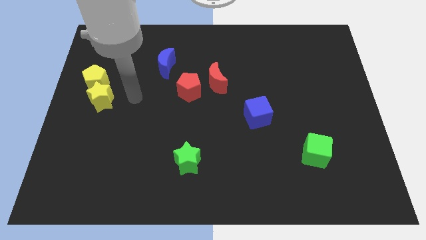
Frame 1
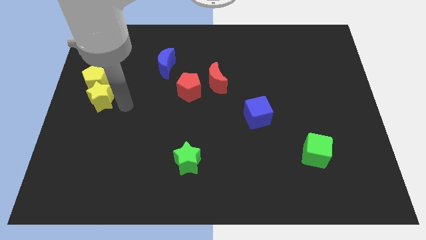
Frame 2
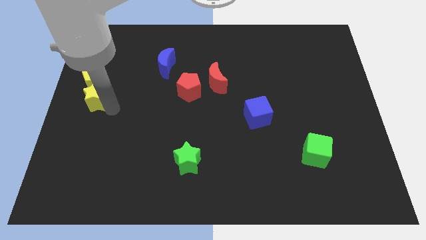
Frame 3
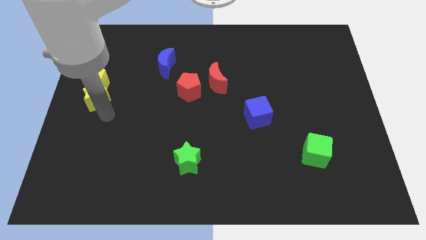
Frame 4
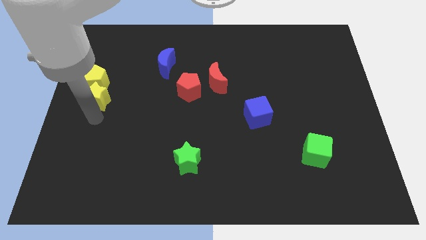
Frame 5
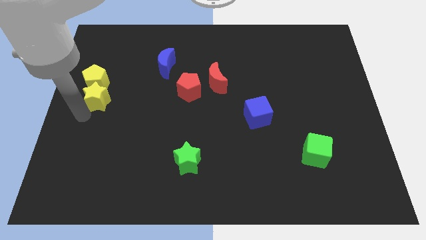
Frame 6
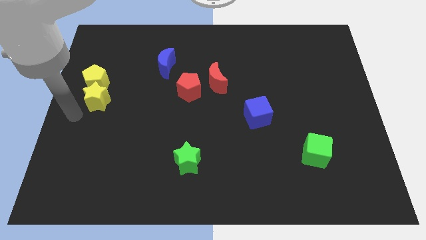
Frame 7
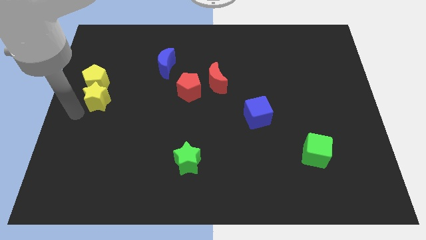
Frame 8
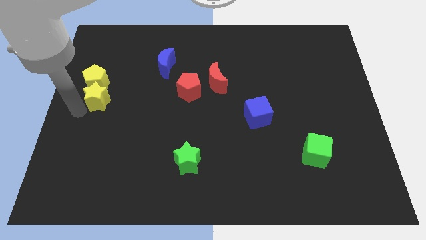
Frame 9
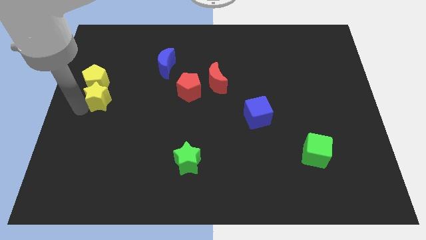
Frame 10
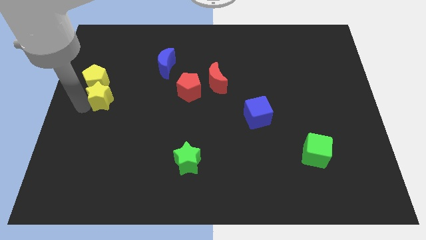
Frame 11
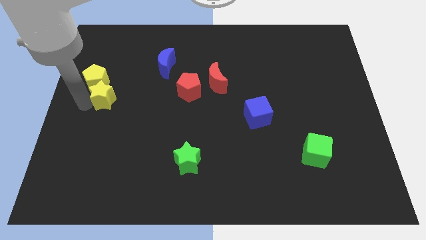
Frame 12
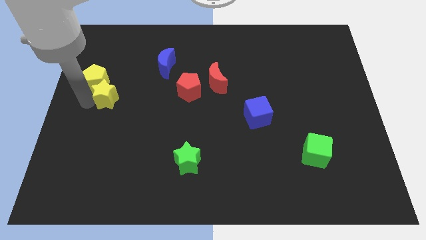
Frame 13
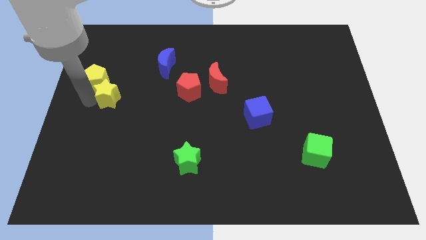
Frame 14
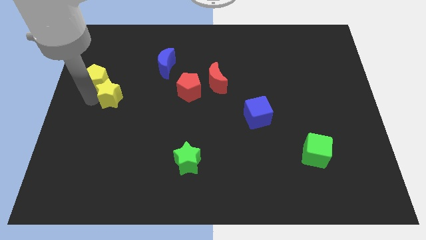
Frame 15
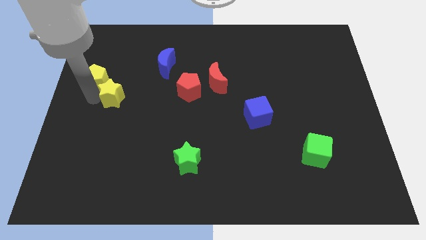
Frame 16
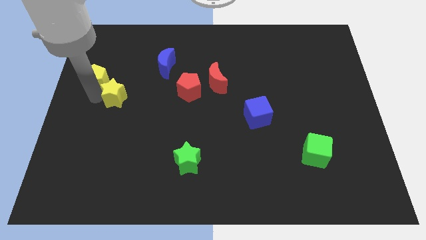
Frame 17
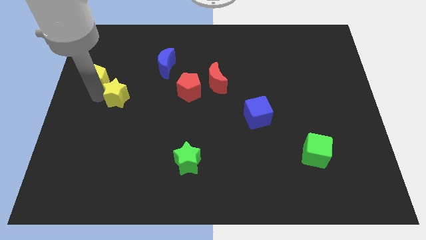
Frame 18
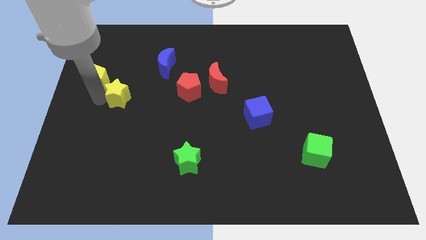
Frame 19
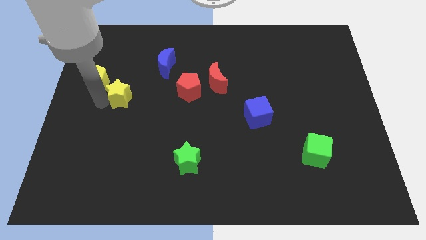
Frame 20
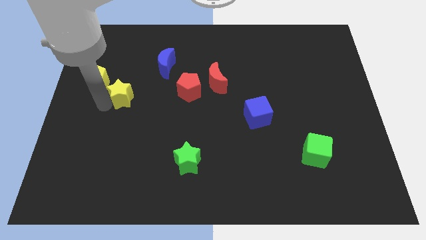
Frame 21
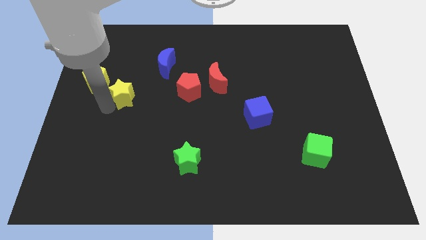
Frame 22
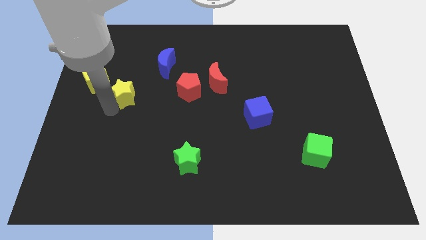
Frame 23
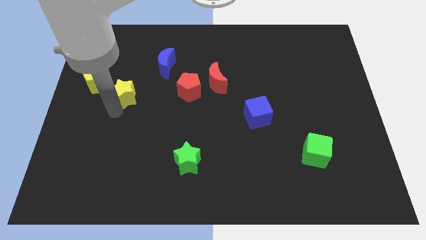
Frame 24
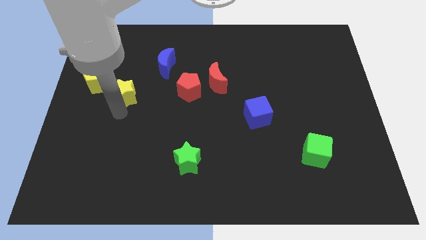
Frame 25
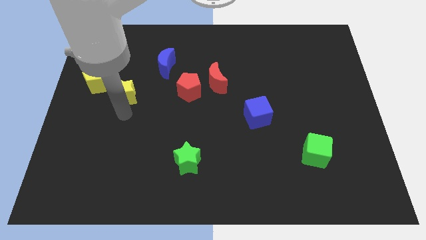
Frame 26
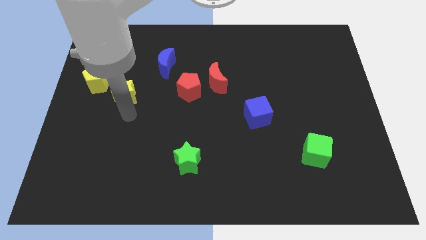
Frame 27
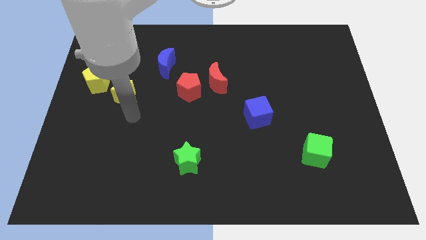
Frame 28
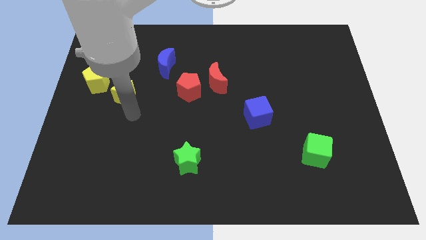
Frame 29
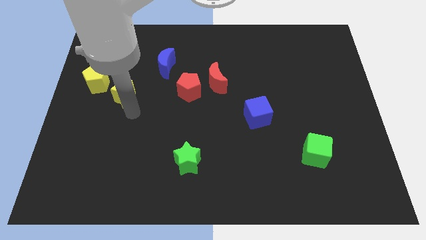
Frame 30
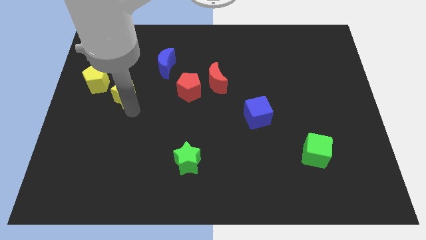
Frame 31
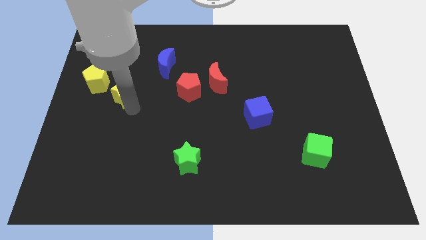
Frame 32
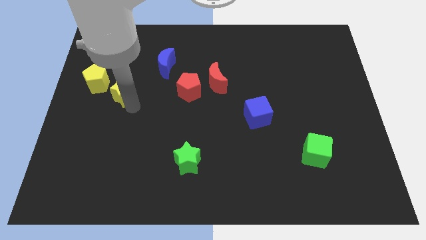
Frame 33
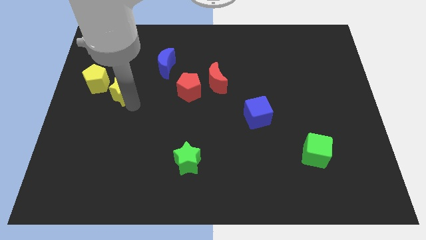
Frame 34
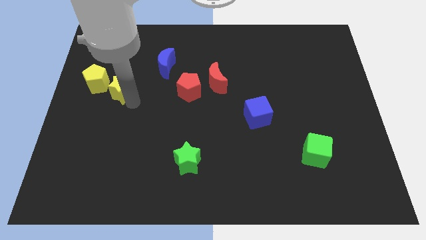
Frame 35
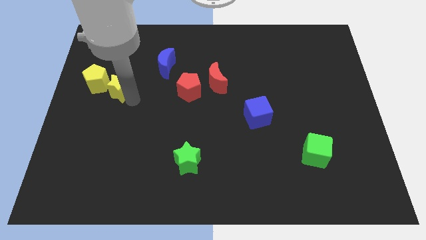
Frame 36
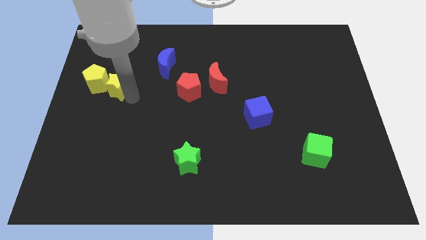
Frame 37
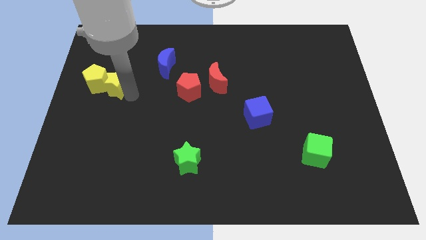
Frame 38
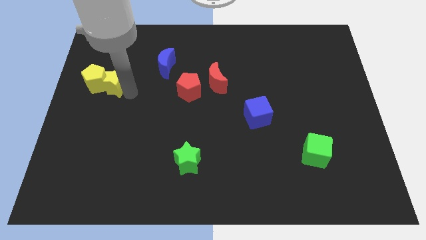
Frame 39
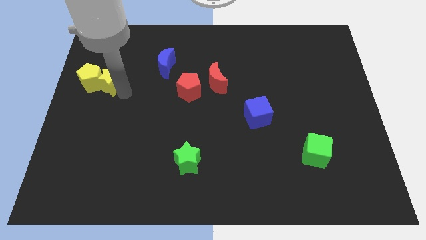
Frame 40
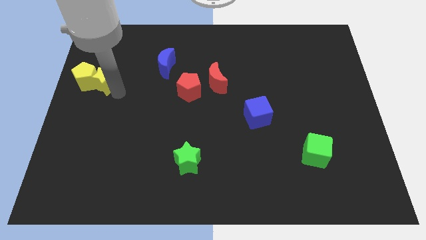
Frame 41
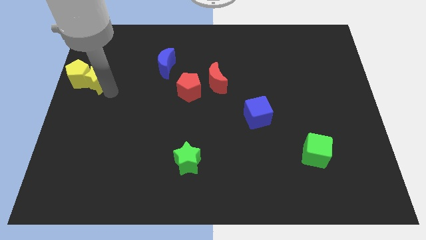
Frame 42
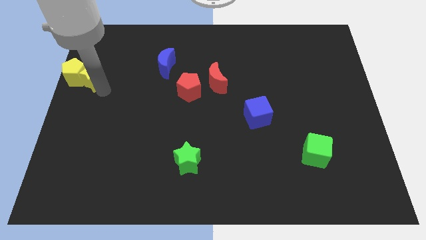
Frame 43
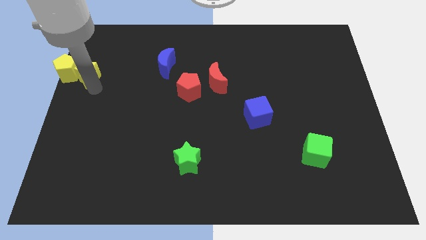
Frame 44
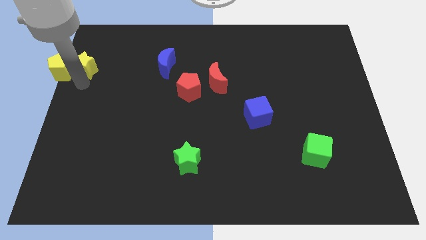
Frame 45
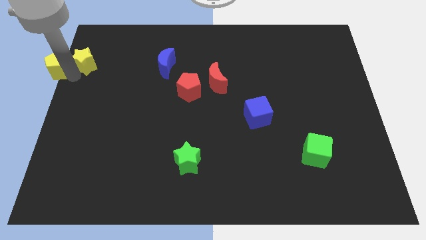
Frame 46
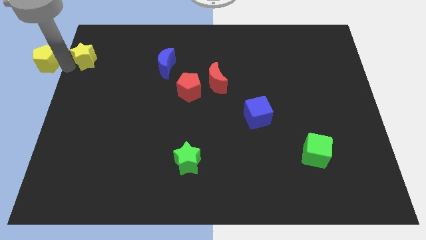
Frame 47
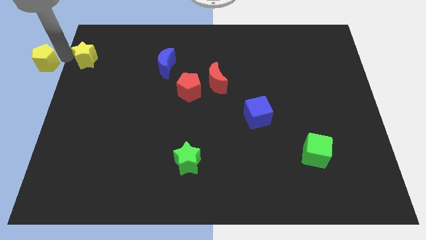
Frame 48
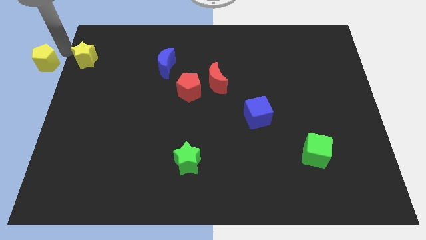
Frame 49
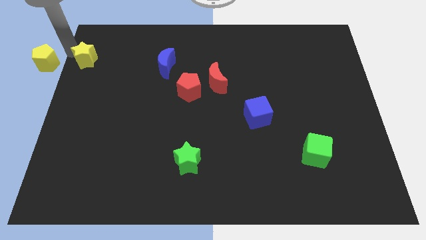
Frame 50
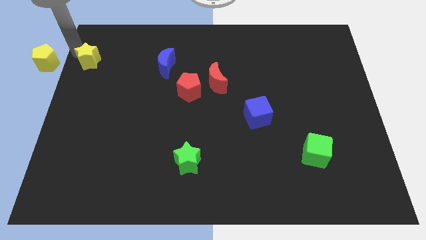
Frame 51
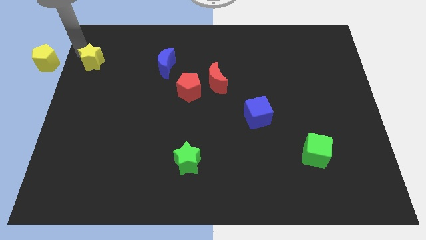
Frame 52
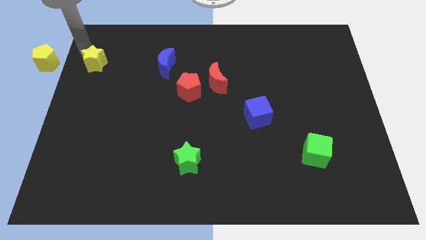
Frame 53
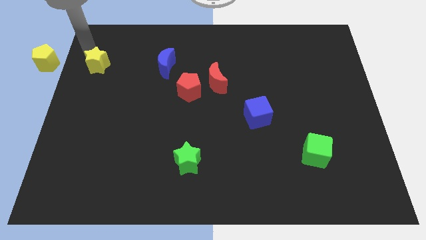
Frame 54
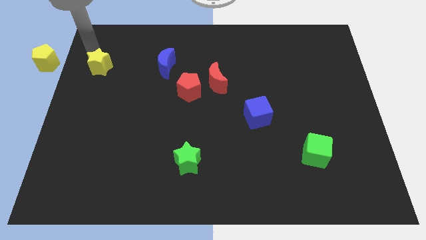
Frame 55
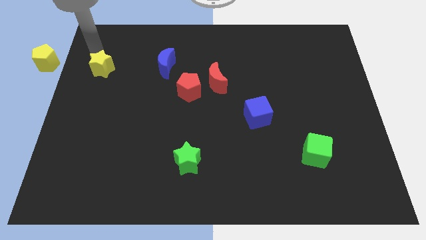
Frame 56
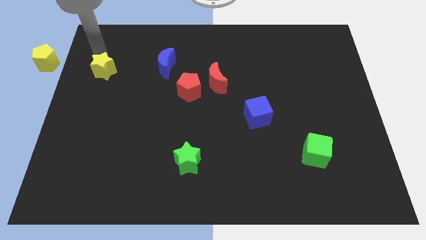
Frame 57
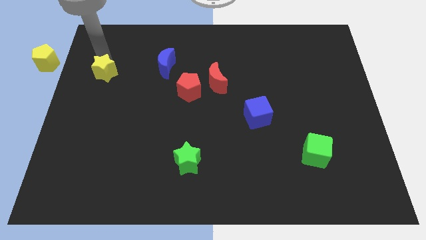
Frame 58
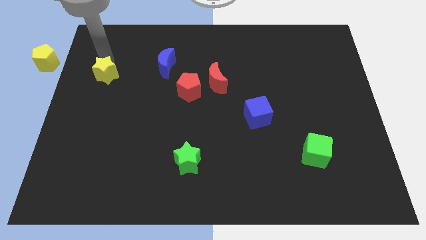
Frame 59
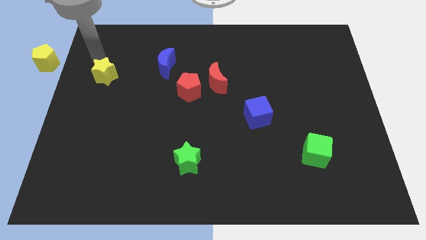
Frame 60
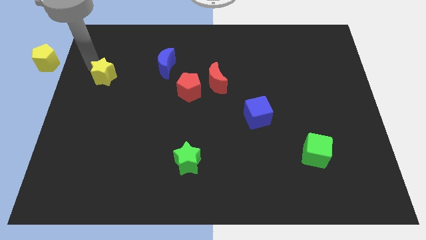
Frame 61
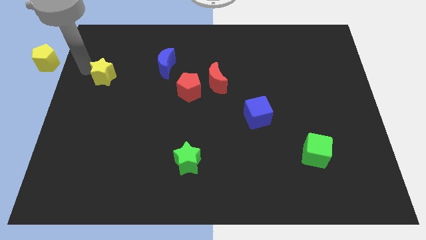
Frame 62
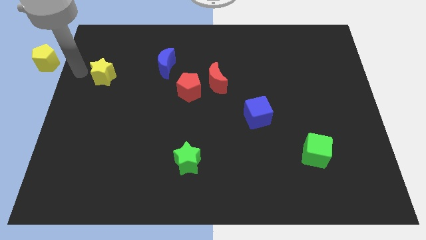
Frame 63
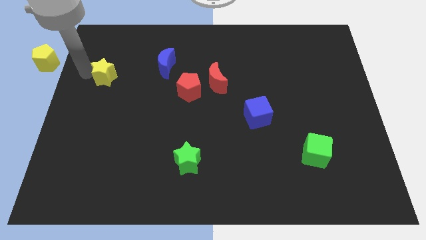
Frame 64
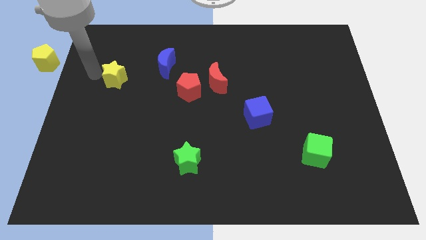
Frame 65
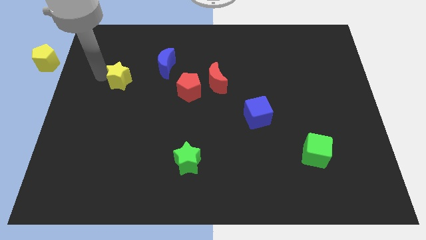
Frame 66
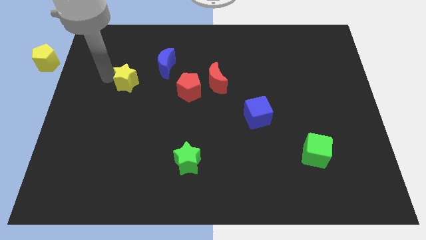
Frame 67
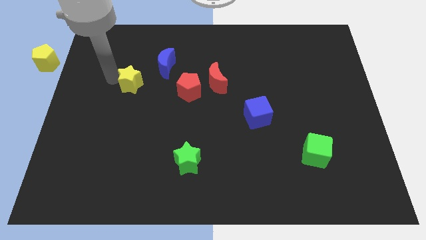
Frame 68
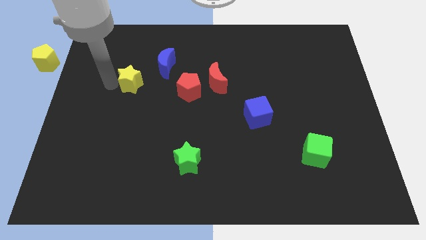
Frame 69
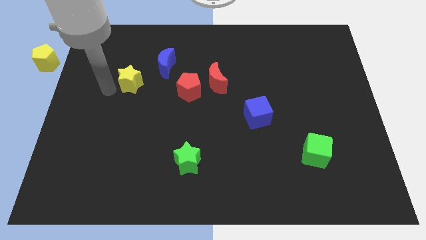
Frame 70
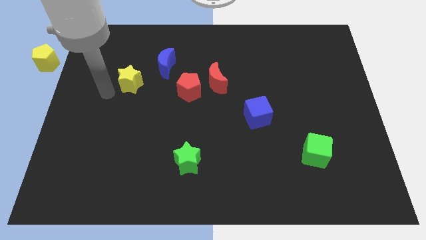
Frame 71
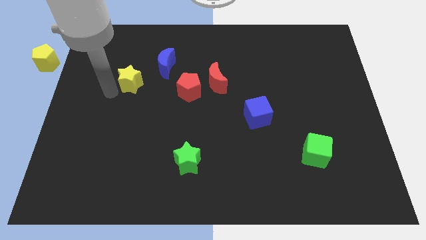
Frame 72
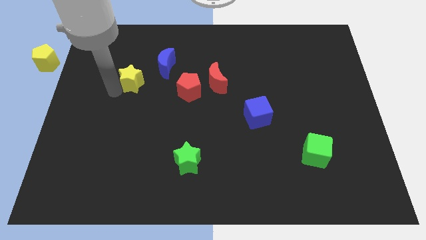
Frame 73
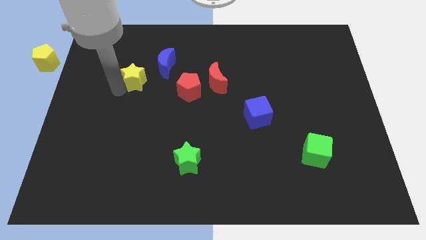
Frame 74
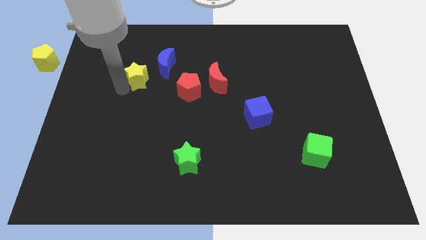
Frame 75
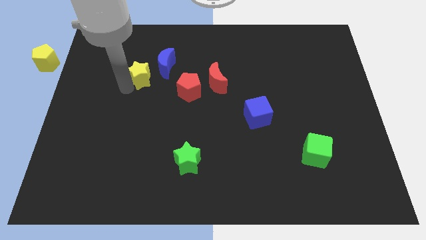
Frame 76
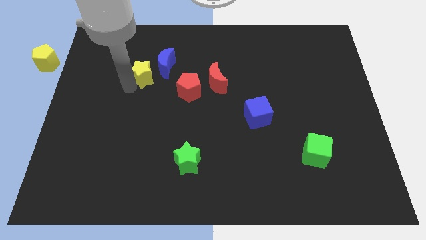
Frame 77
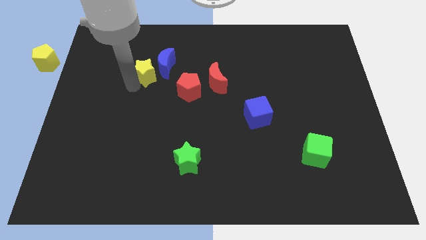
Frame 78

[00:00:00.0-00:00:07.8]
slide the yellow star towards the blue moon
